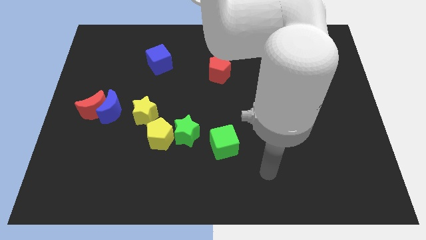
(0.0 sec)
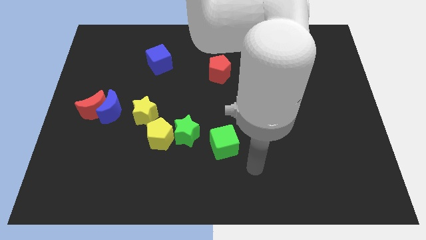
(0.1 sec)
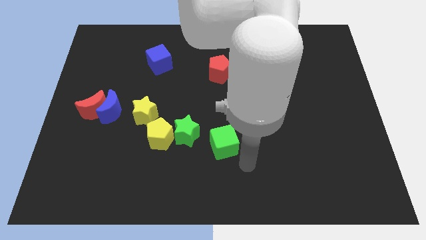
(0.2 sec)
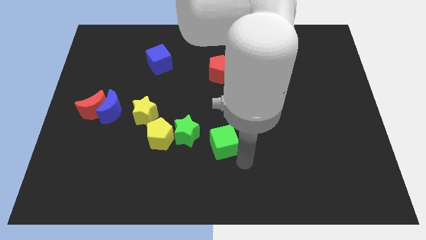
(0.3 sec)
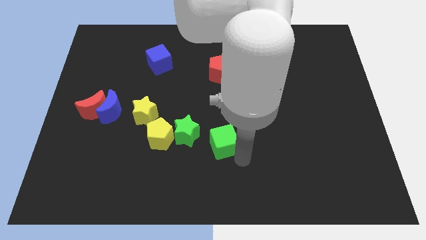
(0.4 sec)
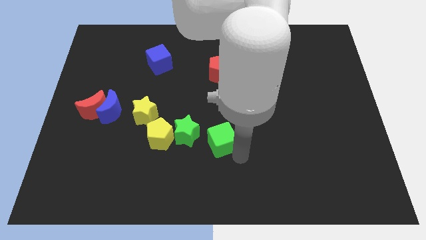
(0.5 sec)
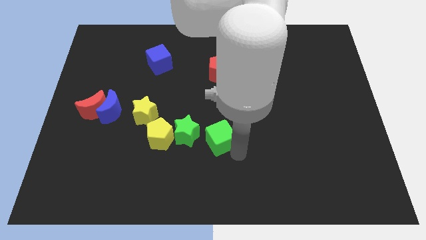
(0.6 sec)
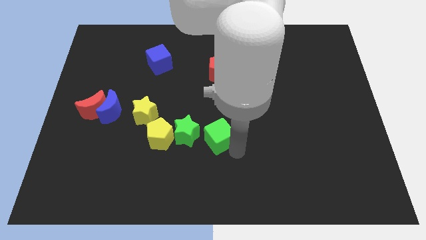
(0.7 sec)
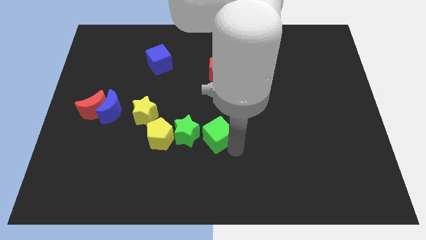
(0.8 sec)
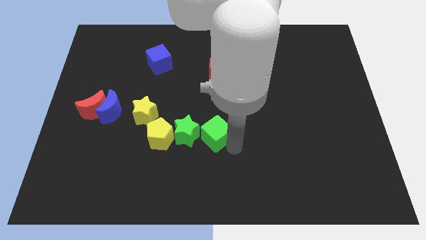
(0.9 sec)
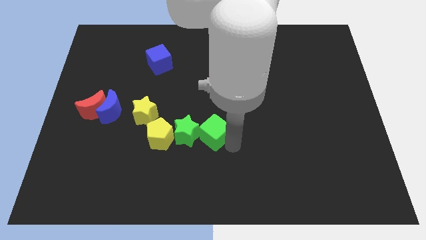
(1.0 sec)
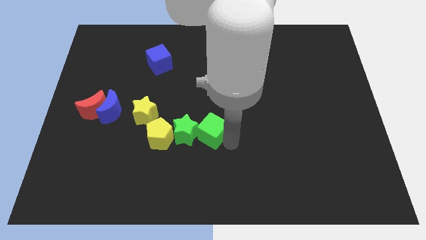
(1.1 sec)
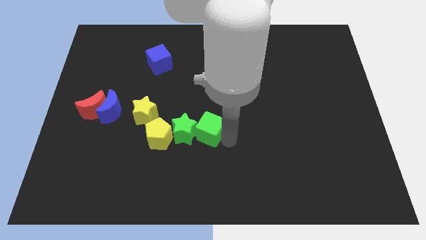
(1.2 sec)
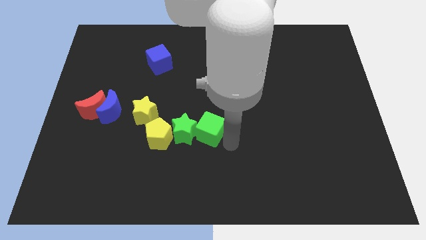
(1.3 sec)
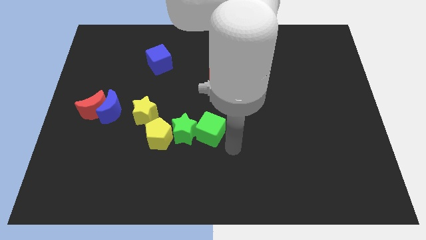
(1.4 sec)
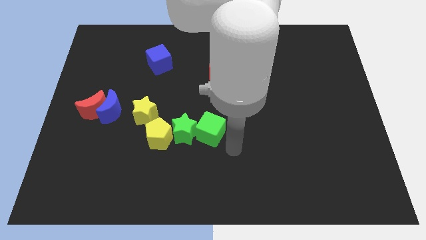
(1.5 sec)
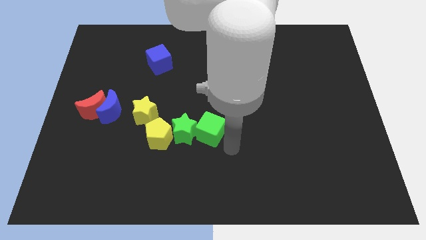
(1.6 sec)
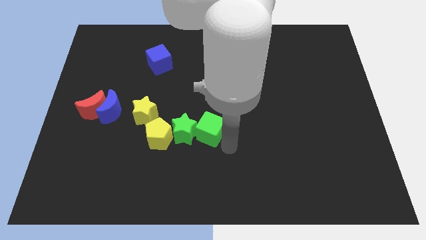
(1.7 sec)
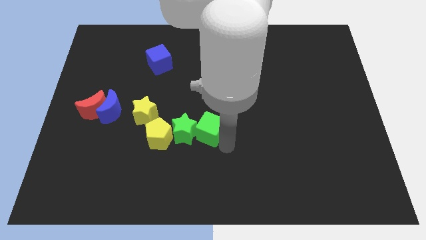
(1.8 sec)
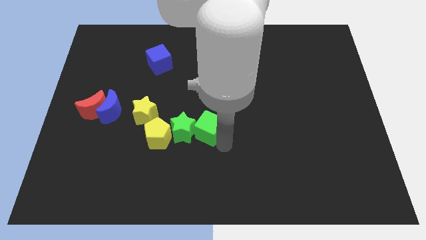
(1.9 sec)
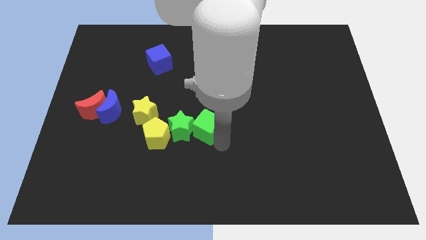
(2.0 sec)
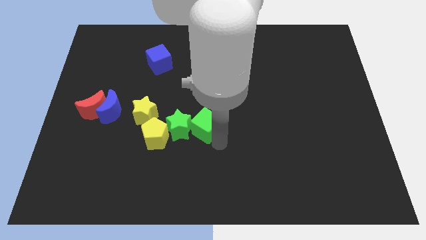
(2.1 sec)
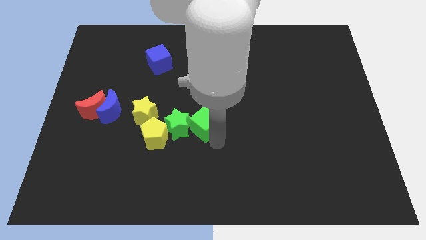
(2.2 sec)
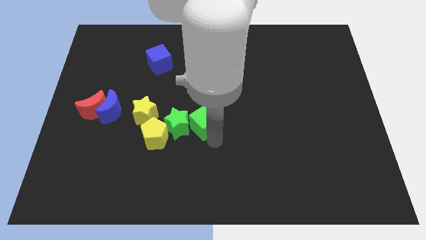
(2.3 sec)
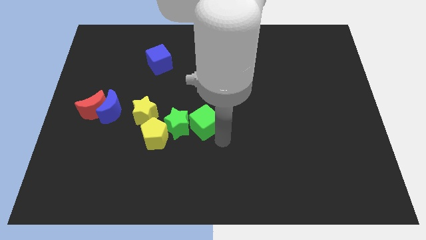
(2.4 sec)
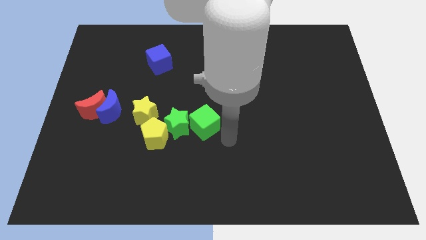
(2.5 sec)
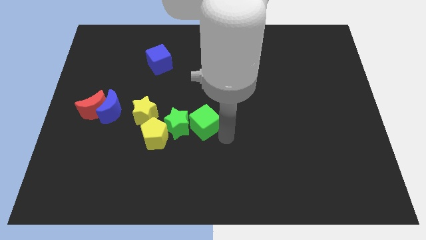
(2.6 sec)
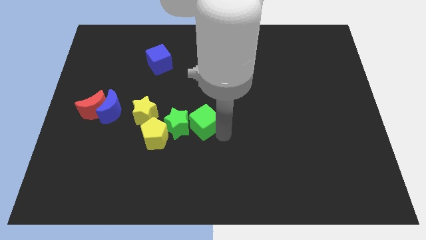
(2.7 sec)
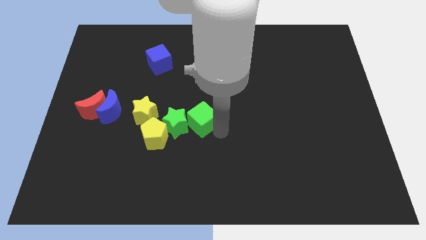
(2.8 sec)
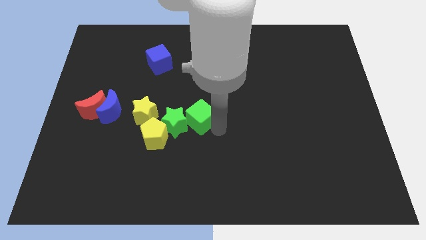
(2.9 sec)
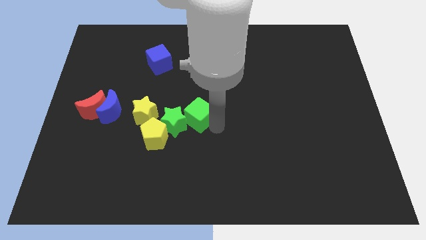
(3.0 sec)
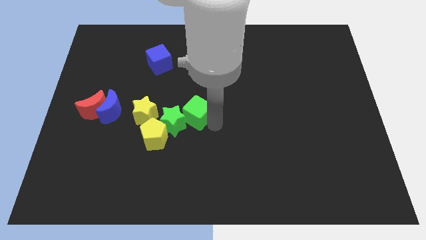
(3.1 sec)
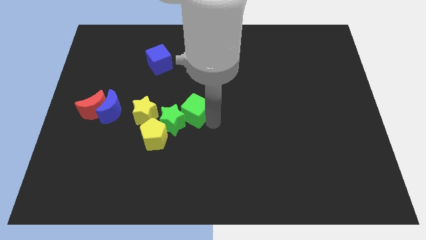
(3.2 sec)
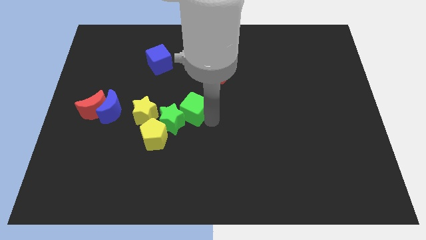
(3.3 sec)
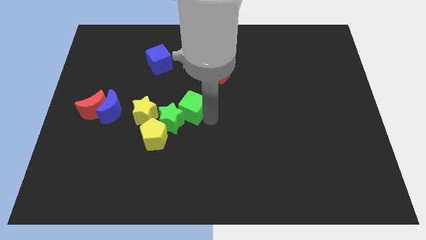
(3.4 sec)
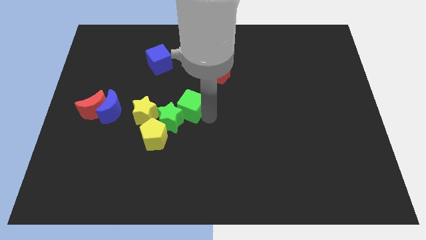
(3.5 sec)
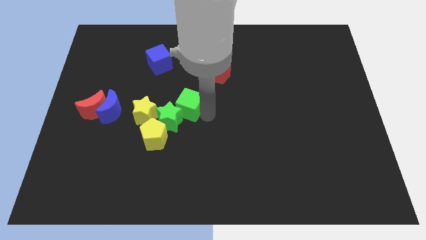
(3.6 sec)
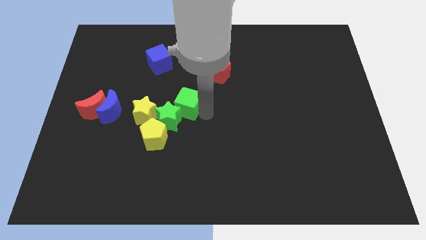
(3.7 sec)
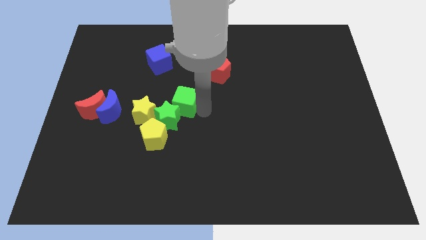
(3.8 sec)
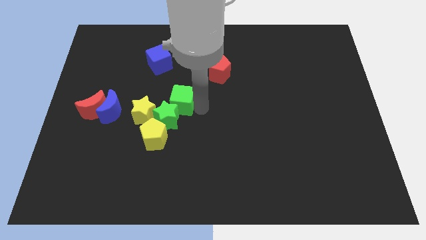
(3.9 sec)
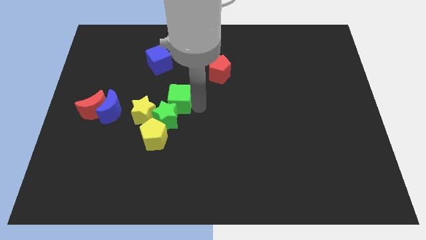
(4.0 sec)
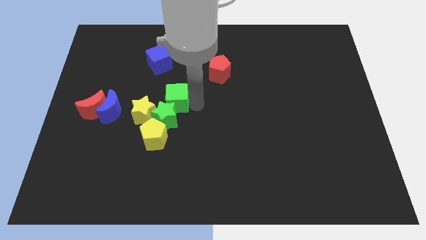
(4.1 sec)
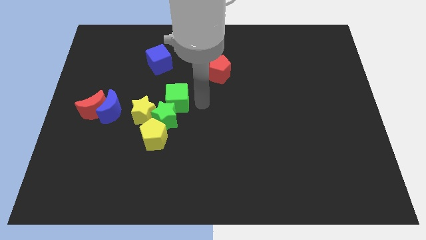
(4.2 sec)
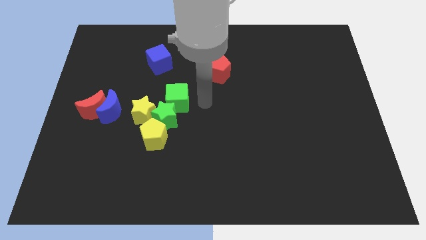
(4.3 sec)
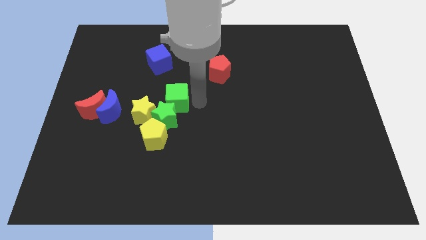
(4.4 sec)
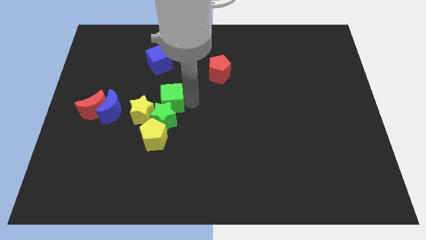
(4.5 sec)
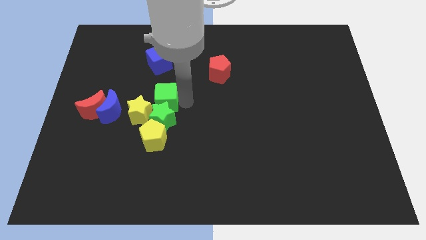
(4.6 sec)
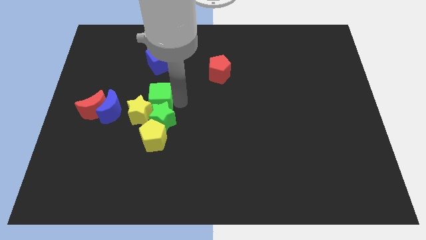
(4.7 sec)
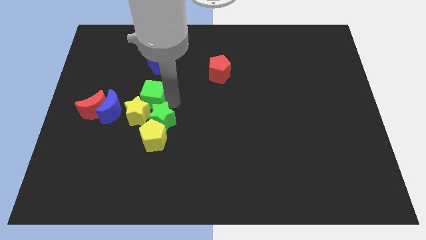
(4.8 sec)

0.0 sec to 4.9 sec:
push the green cube diagonally up and to the right of the blue moon

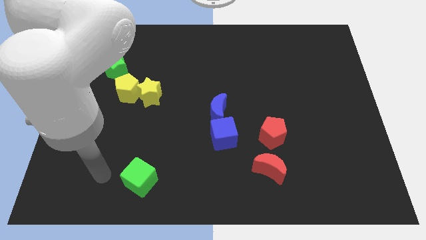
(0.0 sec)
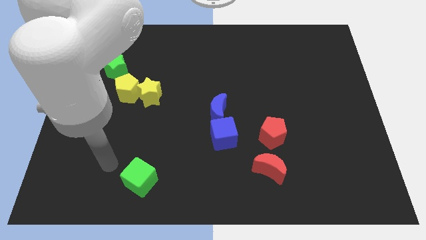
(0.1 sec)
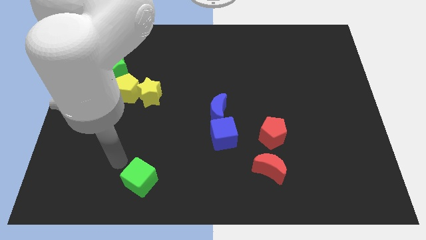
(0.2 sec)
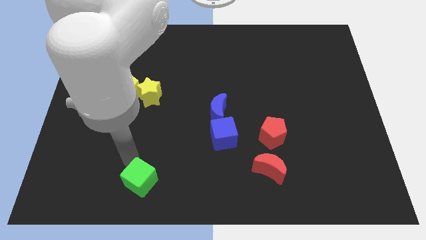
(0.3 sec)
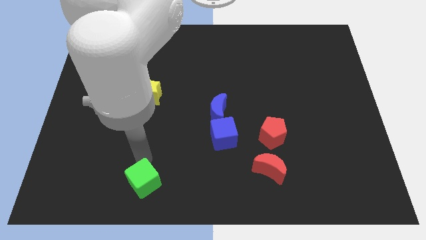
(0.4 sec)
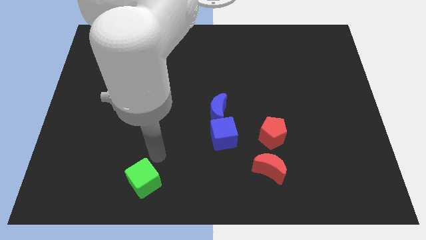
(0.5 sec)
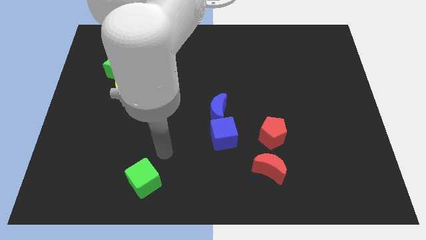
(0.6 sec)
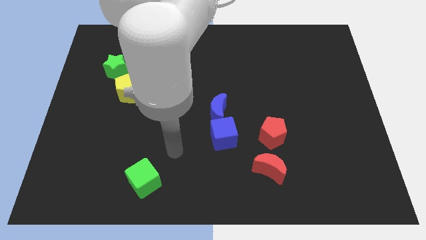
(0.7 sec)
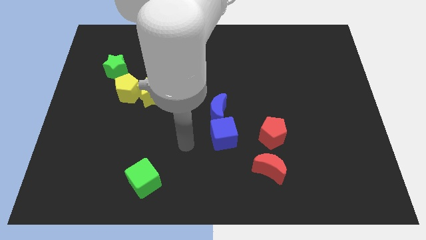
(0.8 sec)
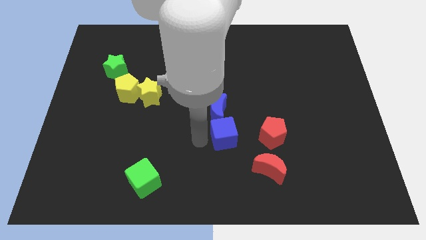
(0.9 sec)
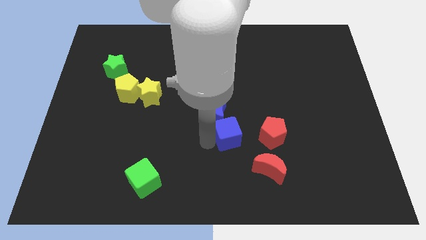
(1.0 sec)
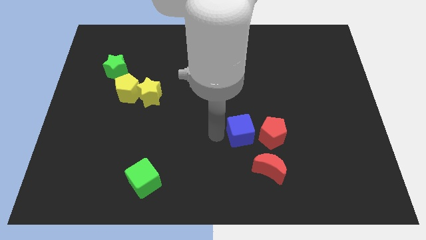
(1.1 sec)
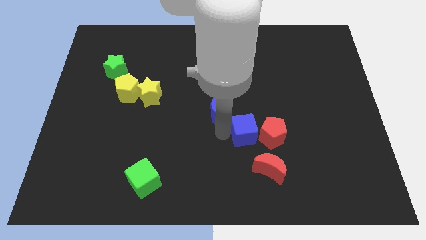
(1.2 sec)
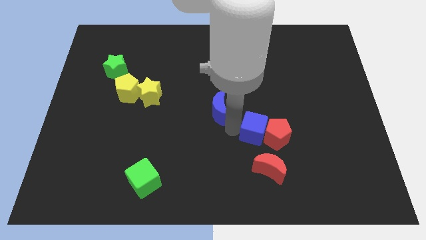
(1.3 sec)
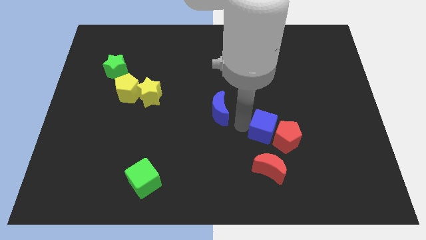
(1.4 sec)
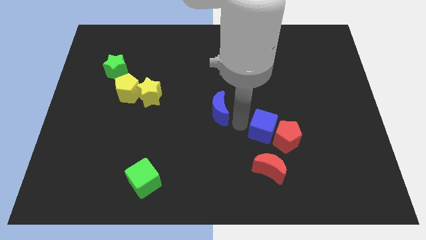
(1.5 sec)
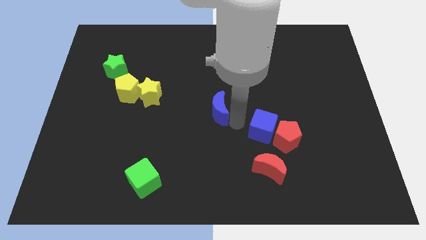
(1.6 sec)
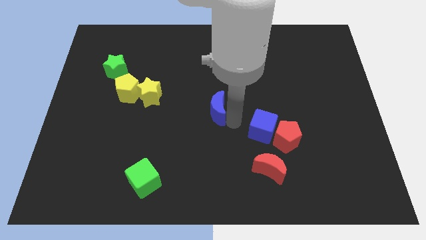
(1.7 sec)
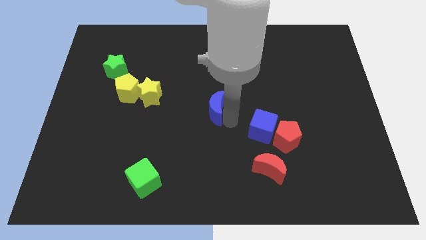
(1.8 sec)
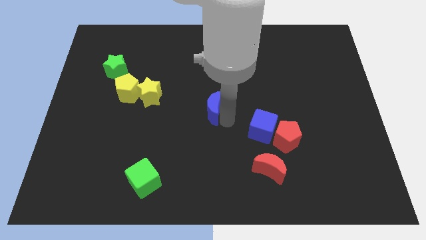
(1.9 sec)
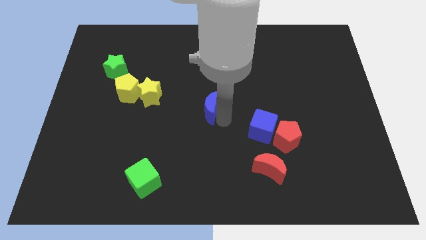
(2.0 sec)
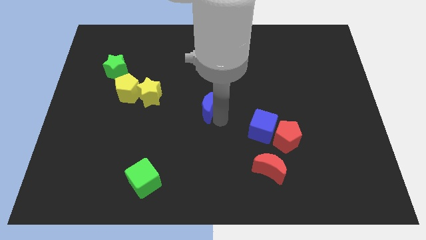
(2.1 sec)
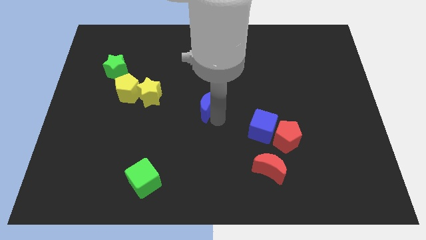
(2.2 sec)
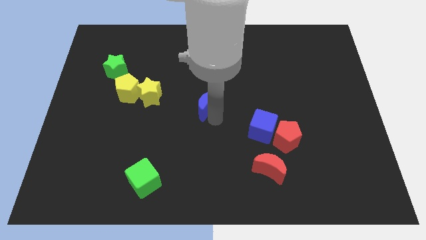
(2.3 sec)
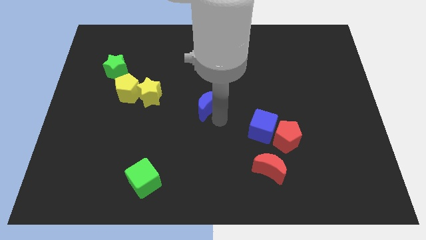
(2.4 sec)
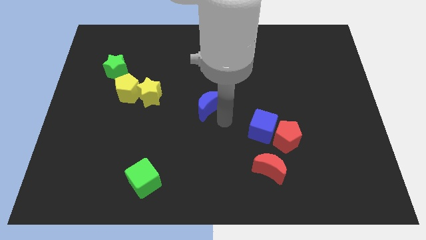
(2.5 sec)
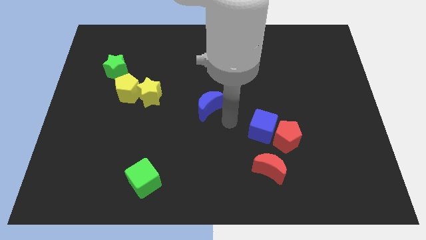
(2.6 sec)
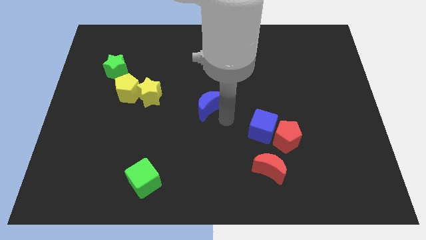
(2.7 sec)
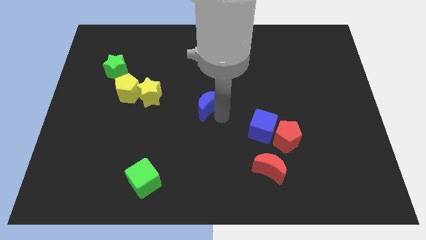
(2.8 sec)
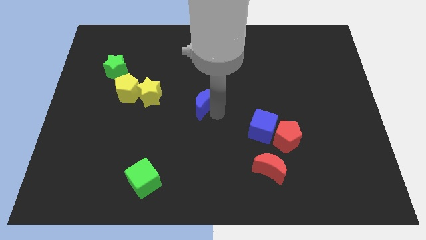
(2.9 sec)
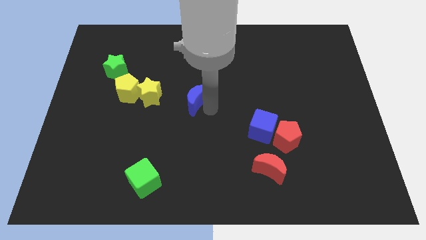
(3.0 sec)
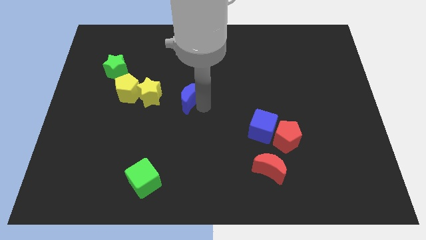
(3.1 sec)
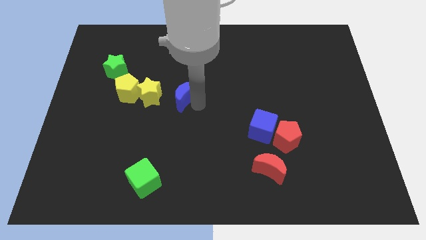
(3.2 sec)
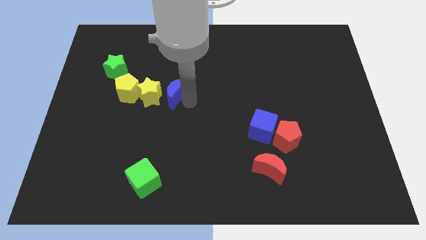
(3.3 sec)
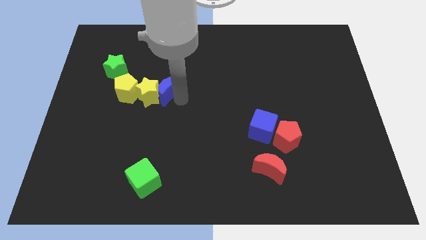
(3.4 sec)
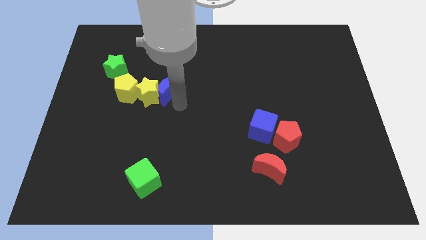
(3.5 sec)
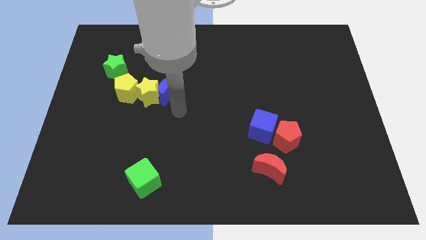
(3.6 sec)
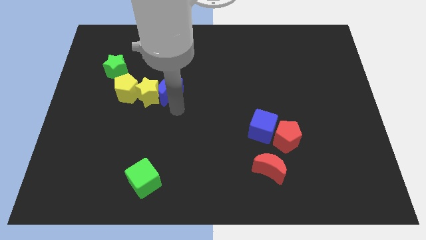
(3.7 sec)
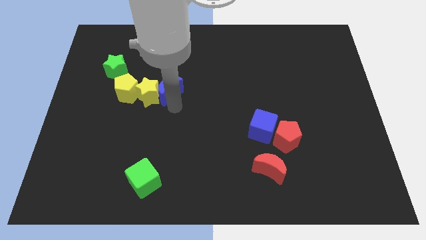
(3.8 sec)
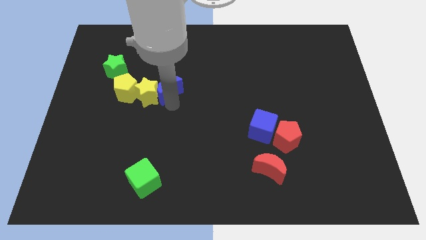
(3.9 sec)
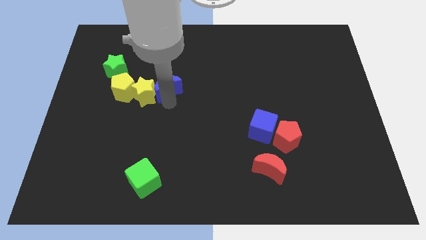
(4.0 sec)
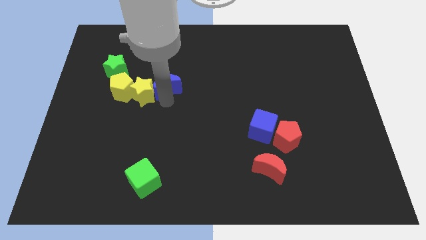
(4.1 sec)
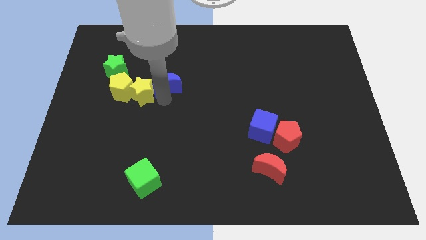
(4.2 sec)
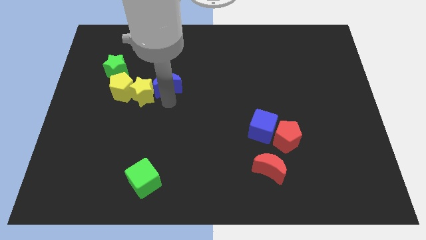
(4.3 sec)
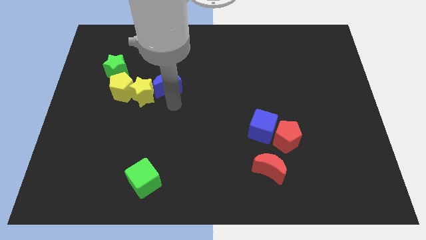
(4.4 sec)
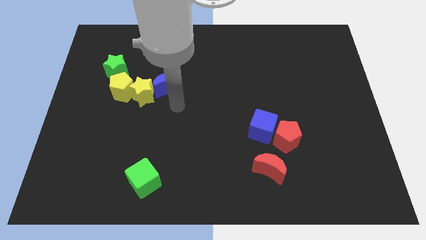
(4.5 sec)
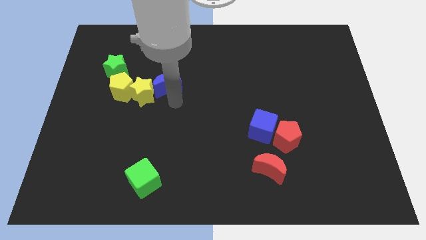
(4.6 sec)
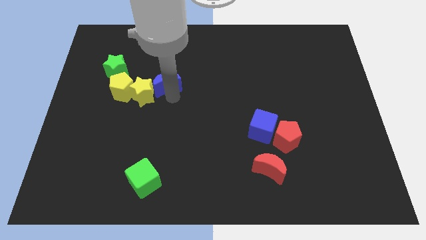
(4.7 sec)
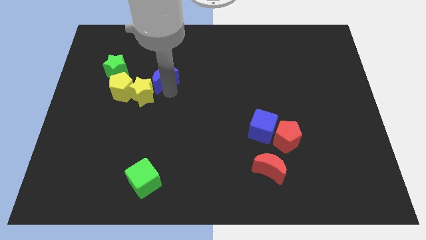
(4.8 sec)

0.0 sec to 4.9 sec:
push the blue moon just right of the green star
